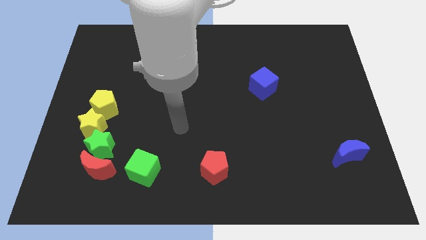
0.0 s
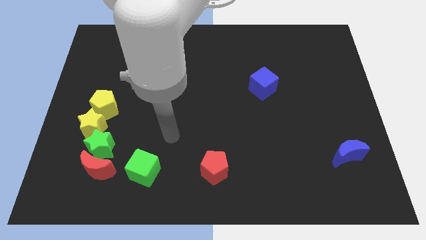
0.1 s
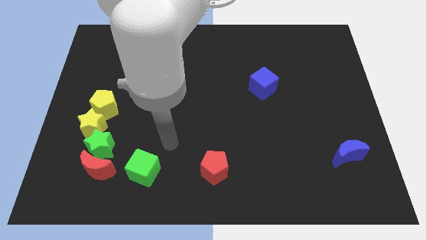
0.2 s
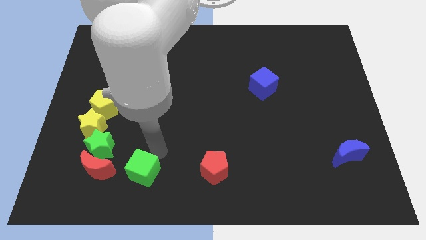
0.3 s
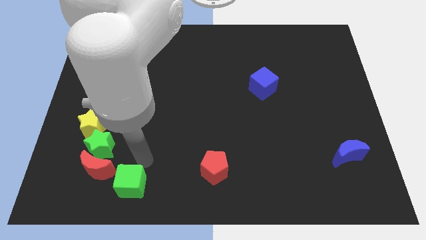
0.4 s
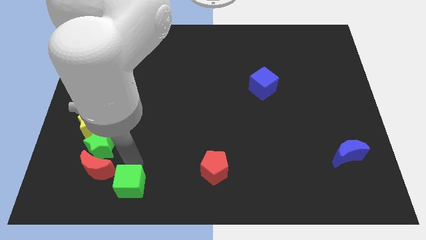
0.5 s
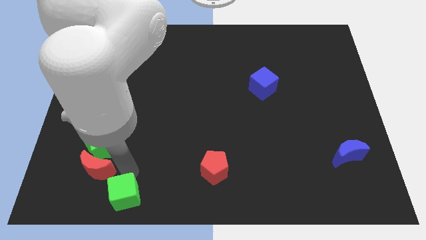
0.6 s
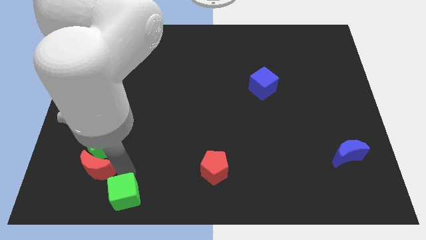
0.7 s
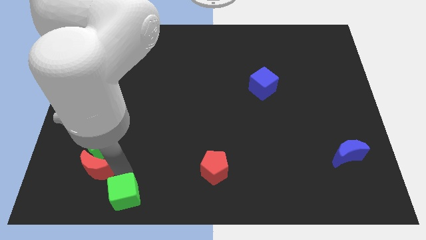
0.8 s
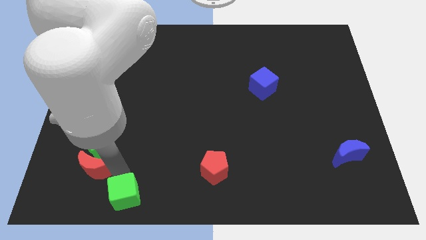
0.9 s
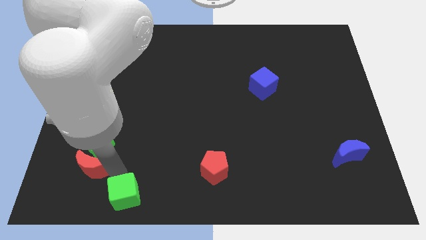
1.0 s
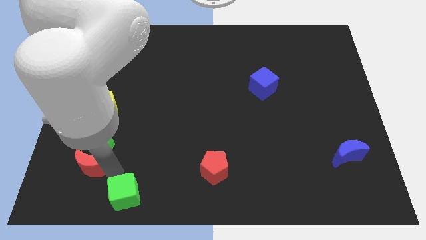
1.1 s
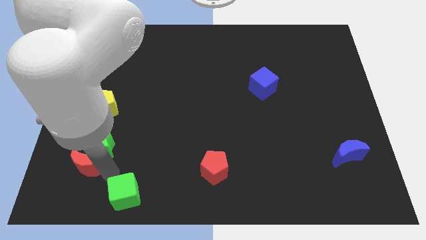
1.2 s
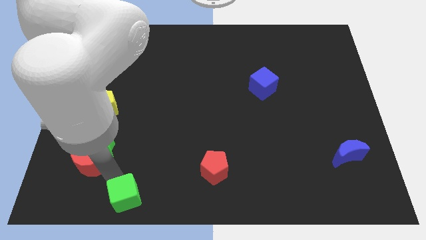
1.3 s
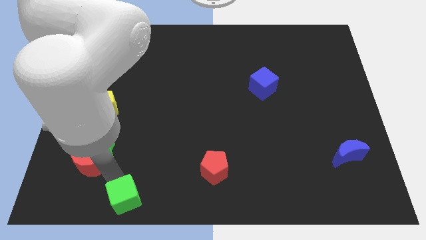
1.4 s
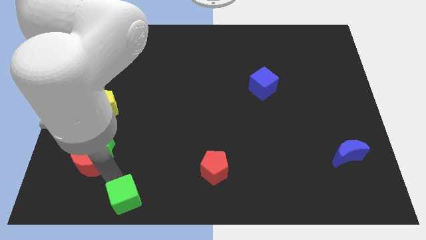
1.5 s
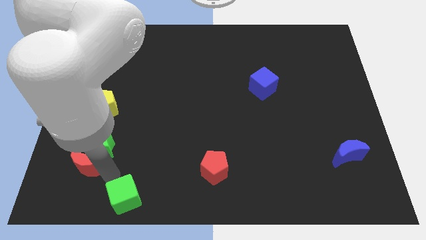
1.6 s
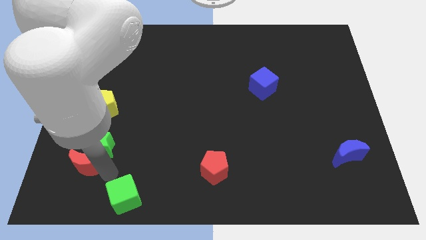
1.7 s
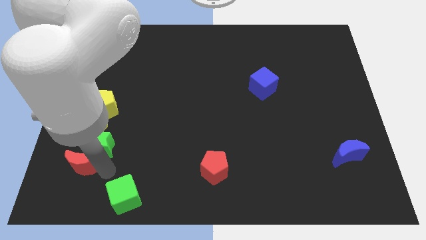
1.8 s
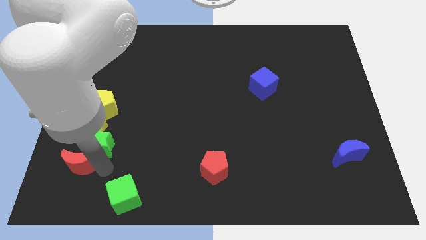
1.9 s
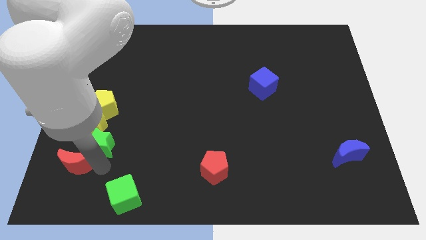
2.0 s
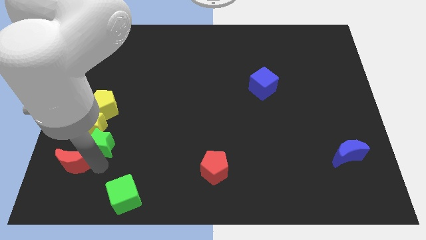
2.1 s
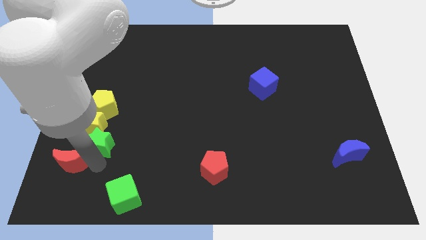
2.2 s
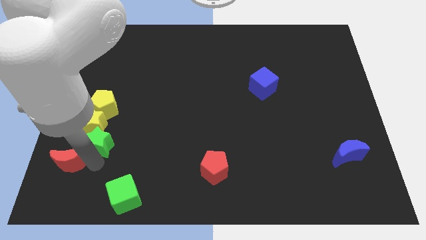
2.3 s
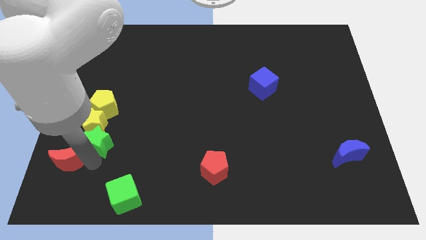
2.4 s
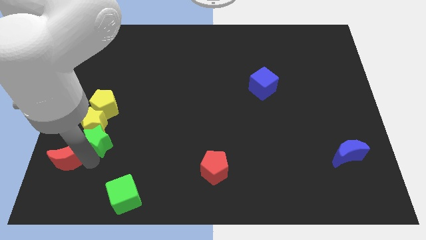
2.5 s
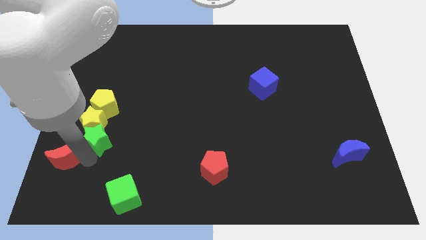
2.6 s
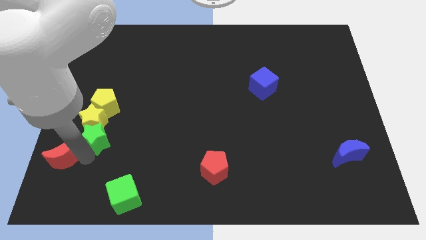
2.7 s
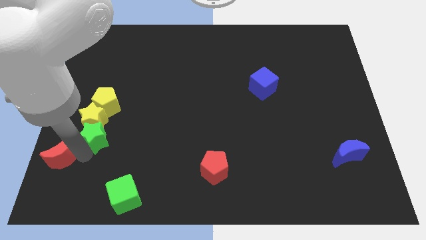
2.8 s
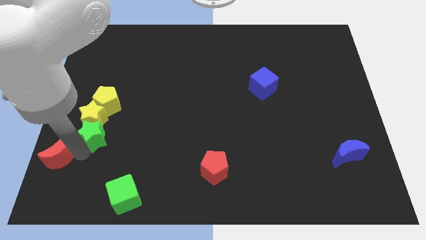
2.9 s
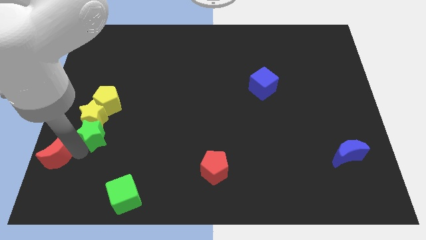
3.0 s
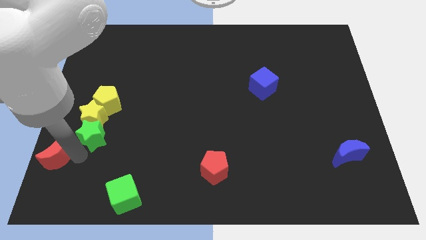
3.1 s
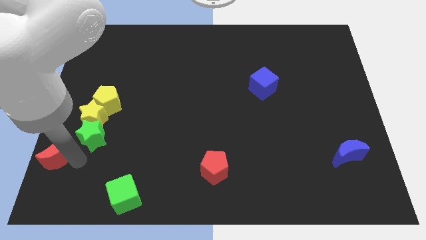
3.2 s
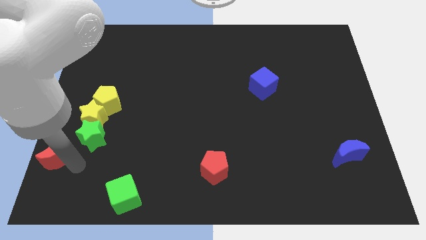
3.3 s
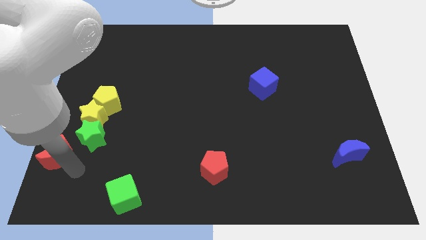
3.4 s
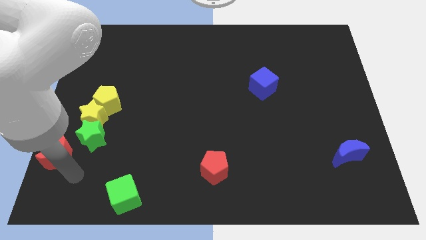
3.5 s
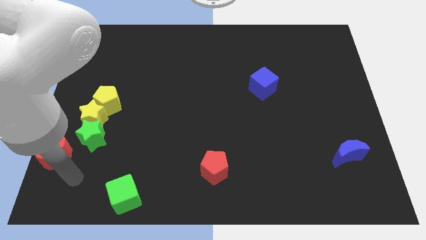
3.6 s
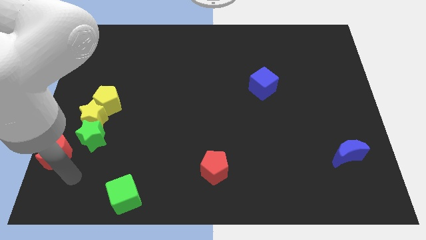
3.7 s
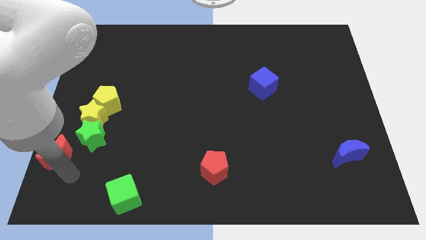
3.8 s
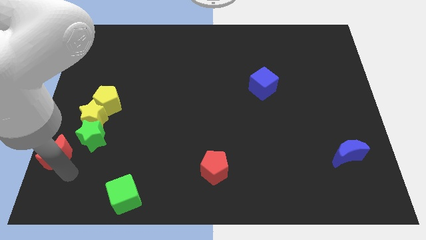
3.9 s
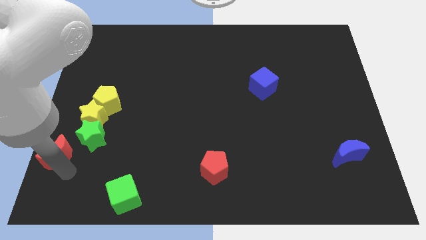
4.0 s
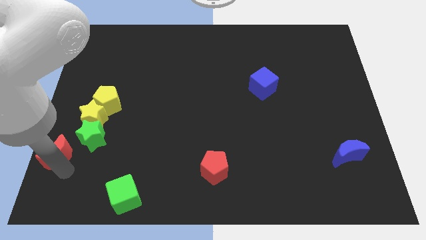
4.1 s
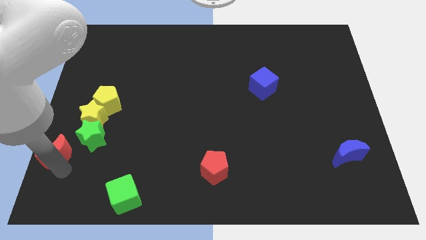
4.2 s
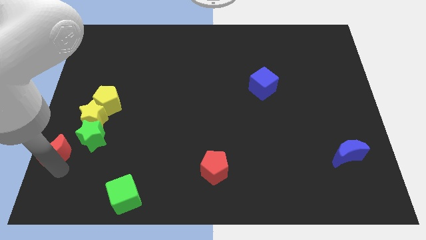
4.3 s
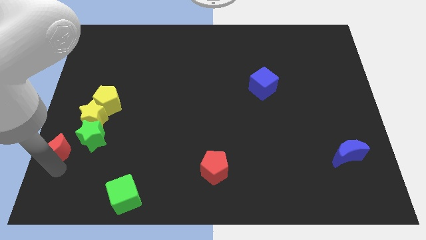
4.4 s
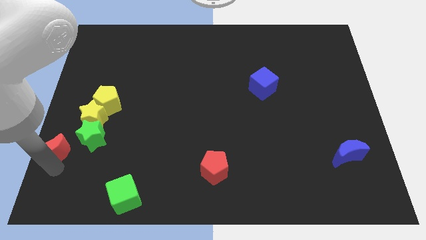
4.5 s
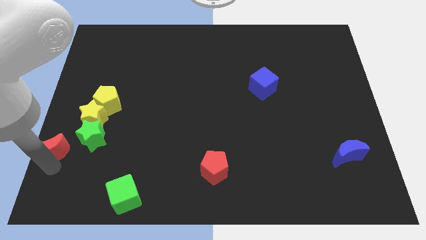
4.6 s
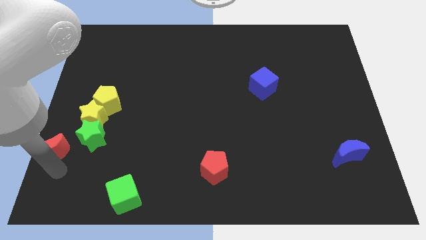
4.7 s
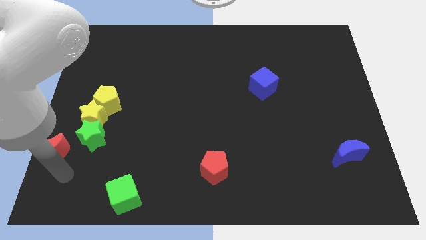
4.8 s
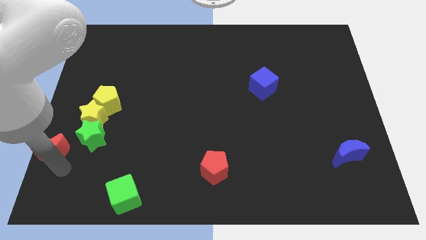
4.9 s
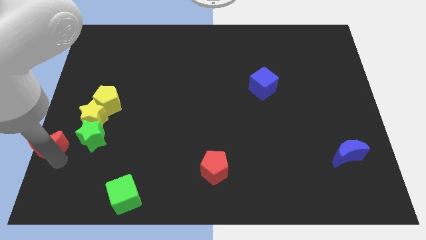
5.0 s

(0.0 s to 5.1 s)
slide the red moon to the left side

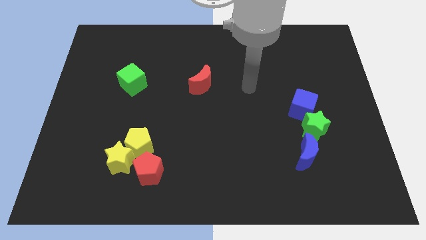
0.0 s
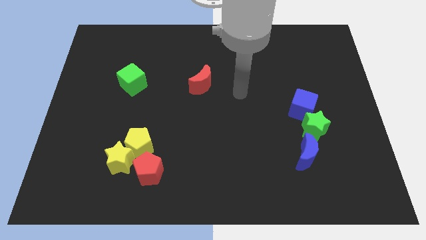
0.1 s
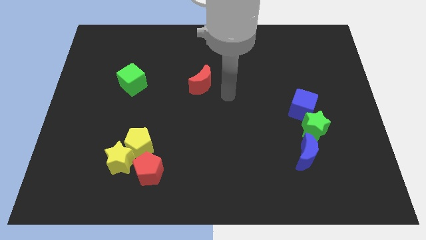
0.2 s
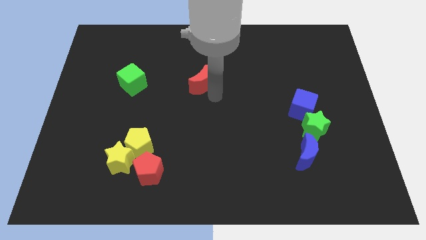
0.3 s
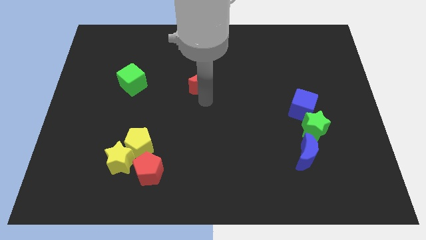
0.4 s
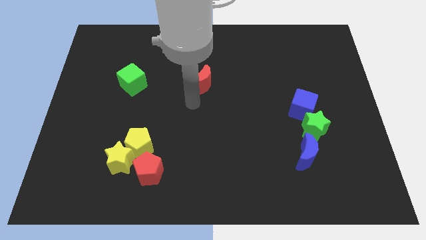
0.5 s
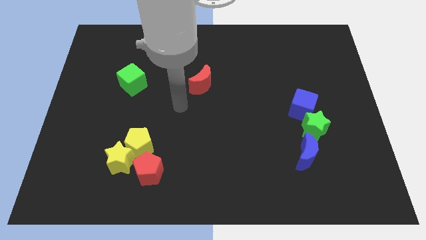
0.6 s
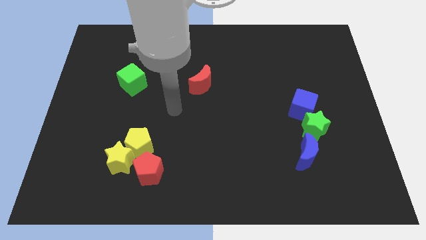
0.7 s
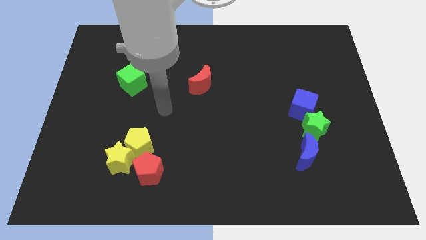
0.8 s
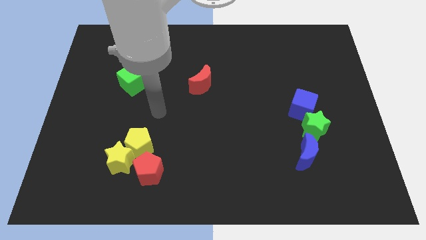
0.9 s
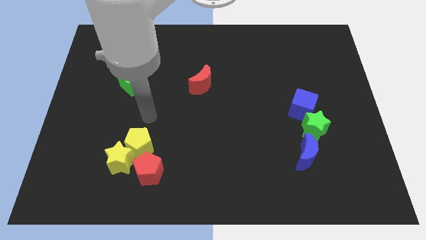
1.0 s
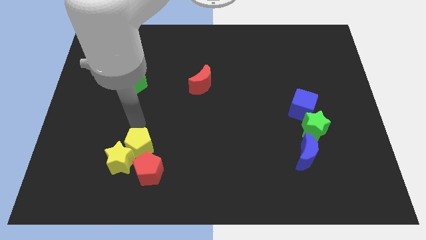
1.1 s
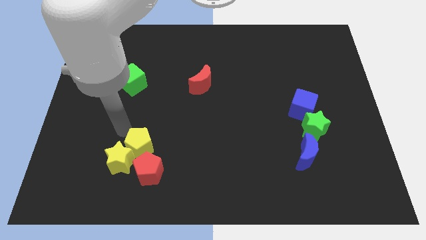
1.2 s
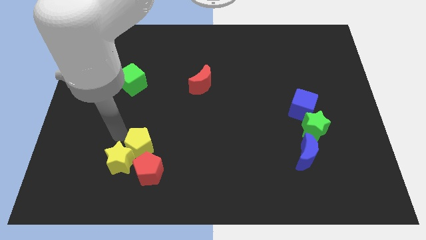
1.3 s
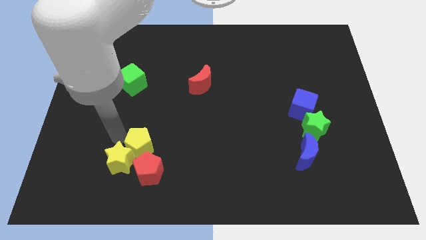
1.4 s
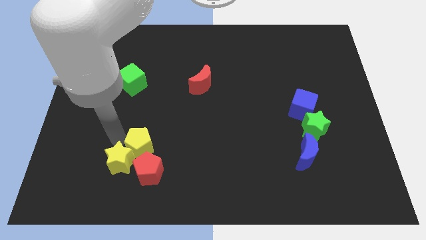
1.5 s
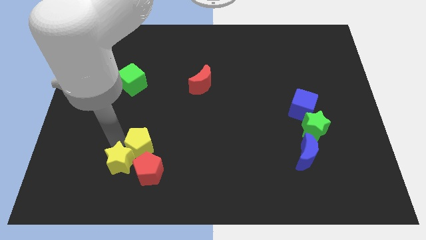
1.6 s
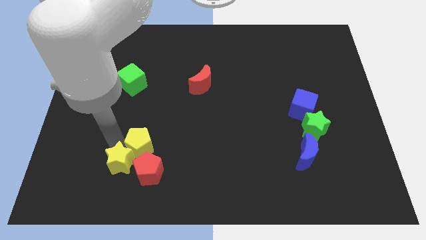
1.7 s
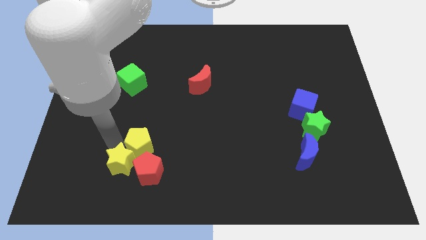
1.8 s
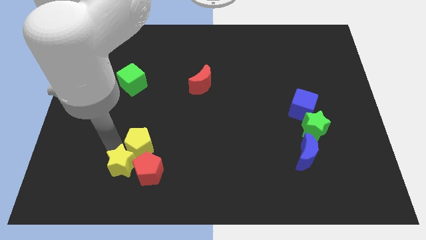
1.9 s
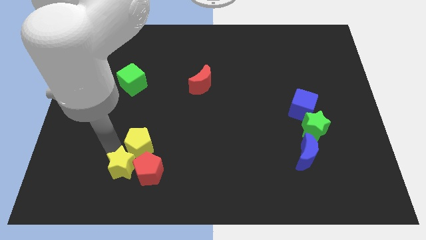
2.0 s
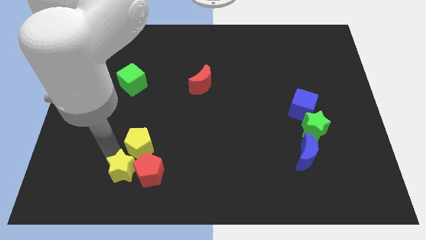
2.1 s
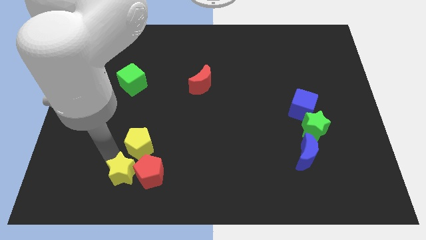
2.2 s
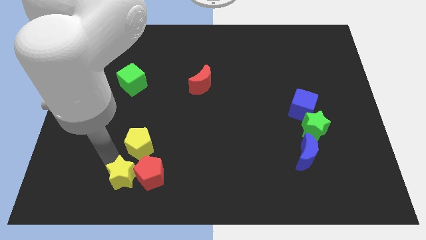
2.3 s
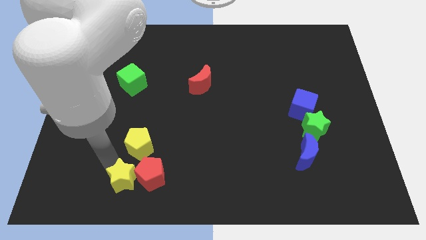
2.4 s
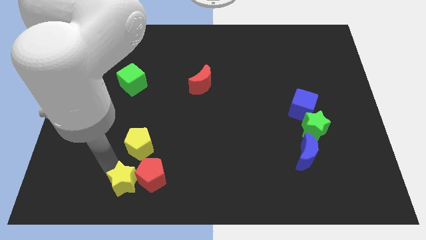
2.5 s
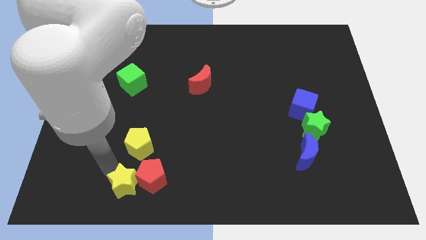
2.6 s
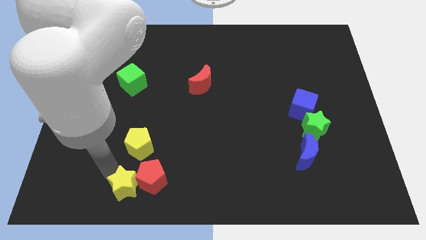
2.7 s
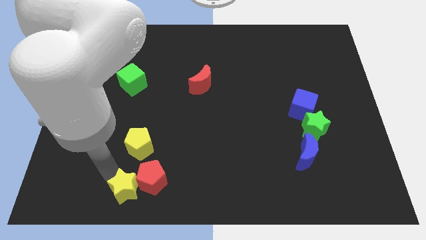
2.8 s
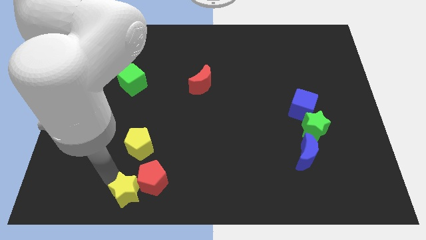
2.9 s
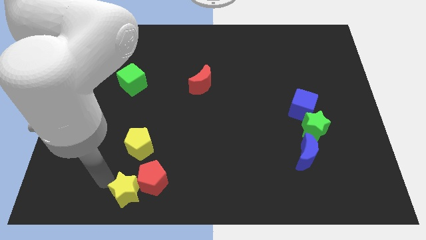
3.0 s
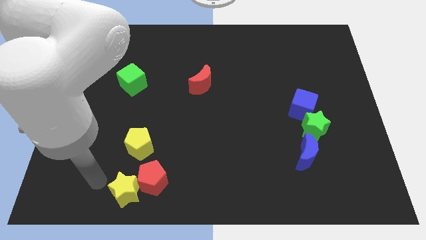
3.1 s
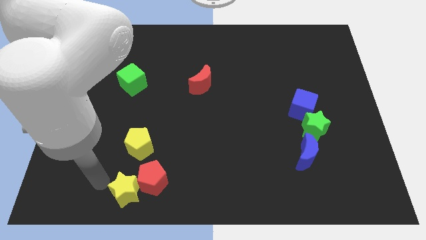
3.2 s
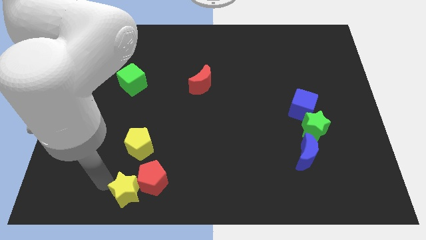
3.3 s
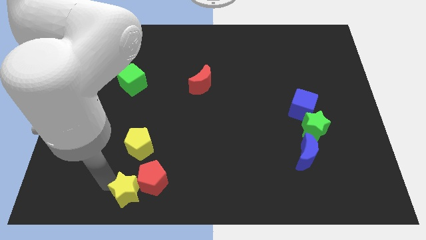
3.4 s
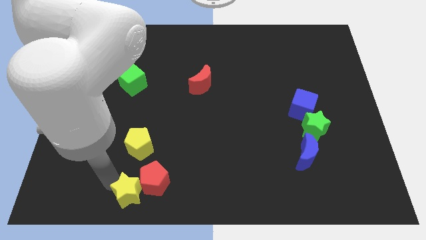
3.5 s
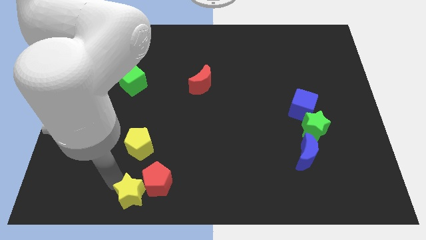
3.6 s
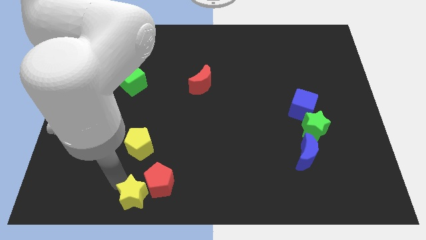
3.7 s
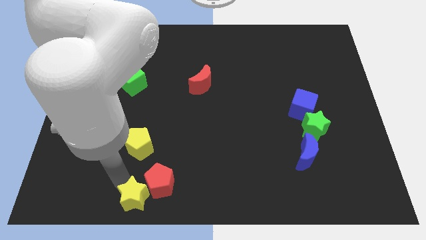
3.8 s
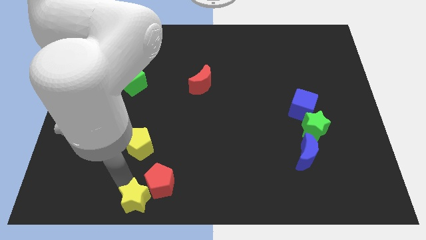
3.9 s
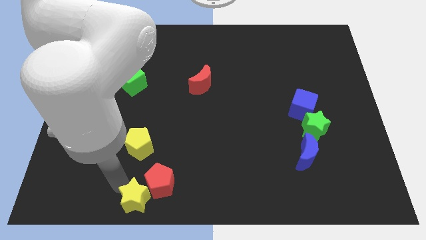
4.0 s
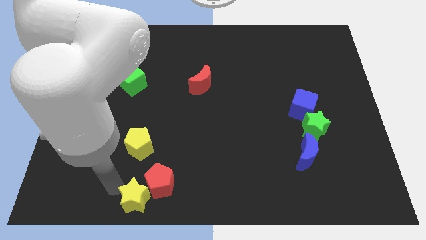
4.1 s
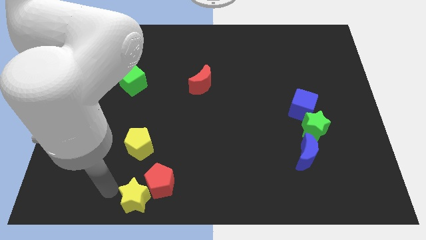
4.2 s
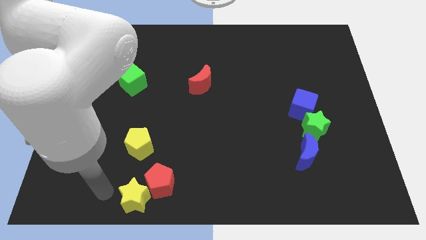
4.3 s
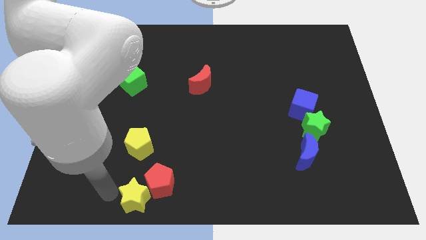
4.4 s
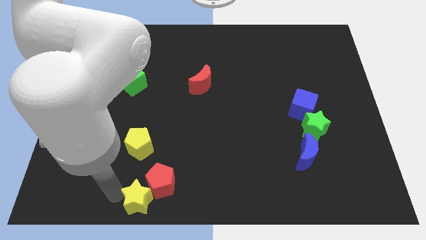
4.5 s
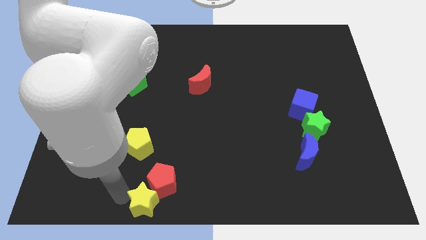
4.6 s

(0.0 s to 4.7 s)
slide the yellow star to the bottom side
